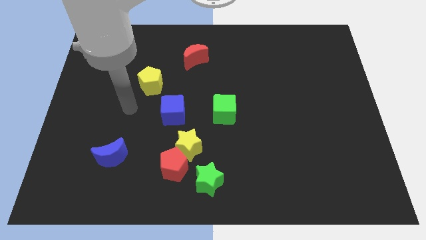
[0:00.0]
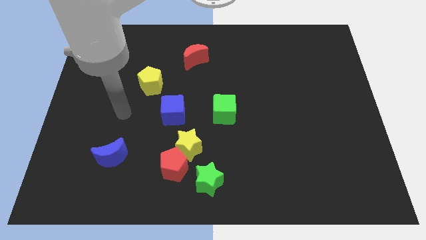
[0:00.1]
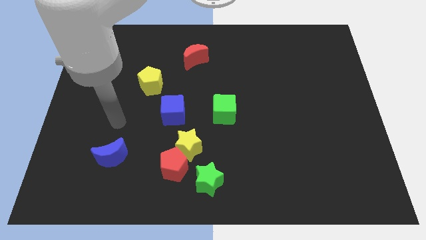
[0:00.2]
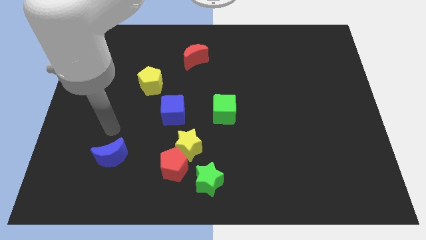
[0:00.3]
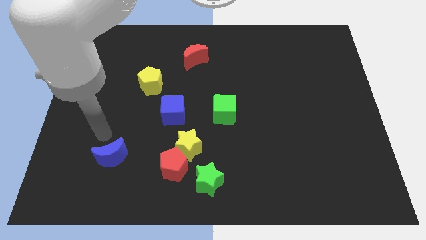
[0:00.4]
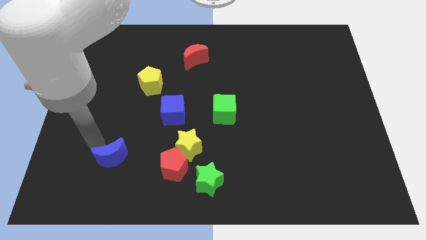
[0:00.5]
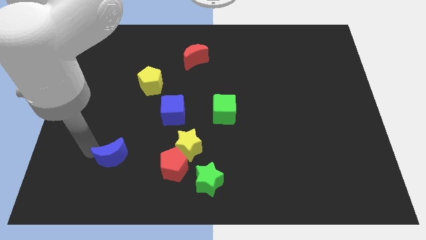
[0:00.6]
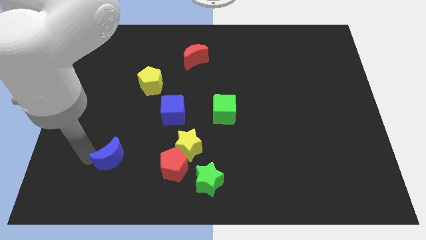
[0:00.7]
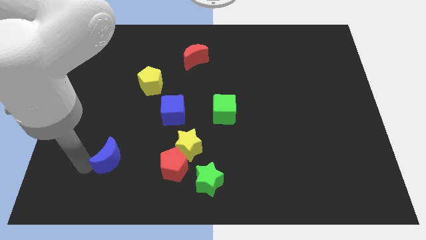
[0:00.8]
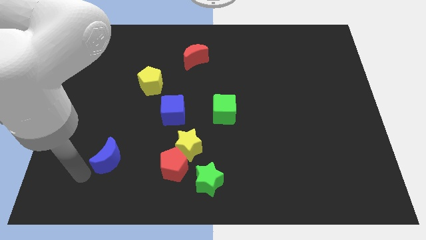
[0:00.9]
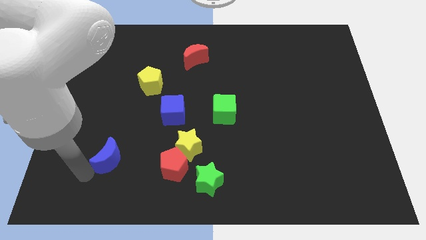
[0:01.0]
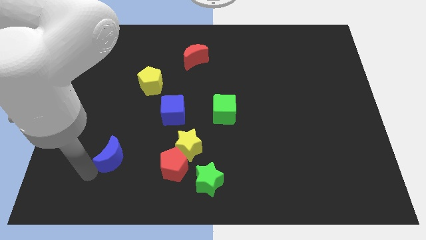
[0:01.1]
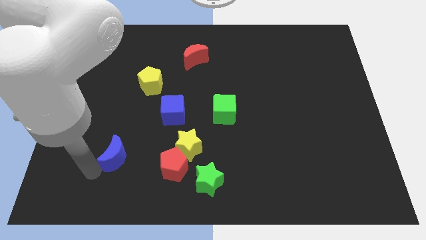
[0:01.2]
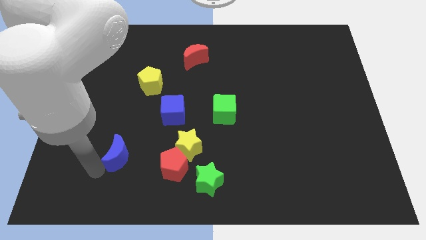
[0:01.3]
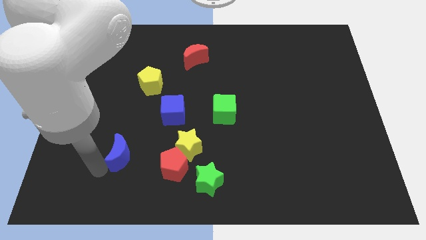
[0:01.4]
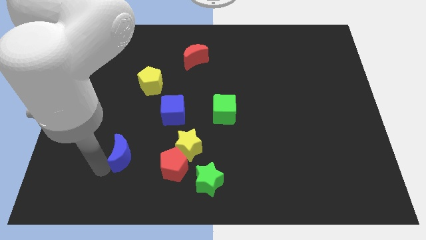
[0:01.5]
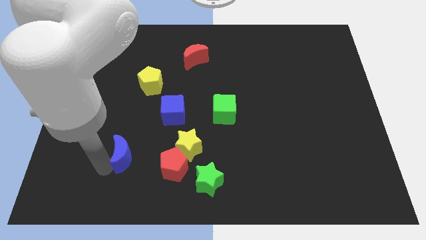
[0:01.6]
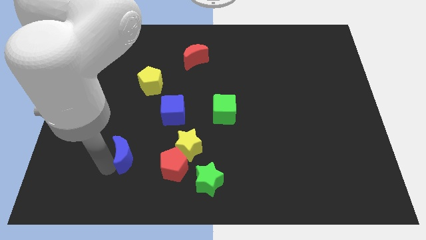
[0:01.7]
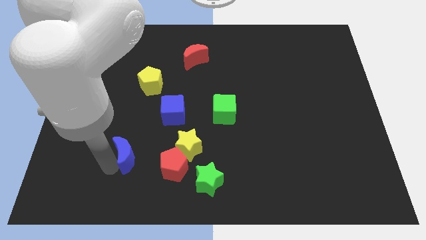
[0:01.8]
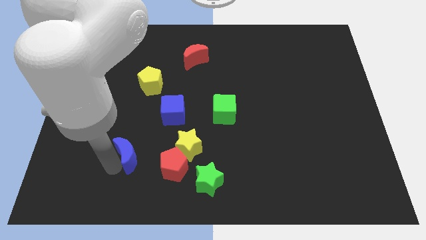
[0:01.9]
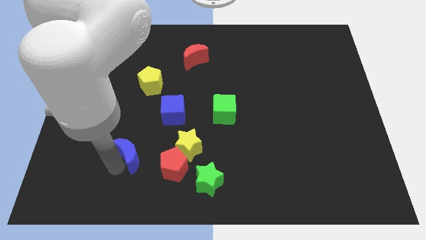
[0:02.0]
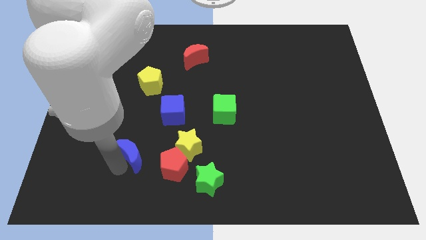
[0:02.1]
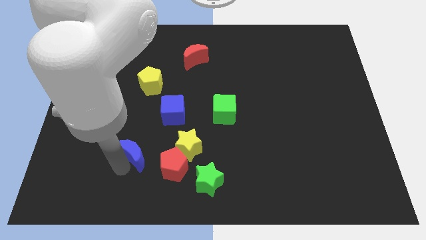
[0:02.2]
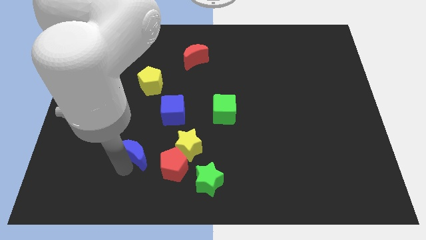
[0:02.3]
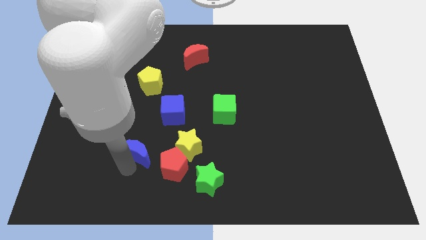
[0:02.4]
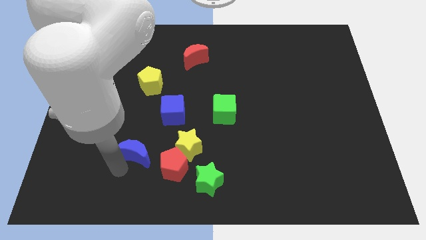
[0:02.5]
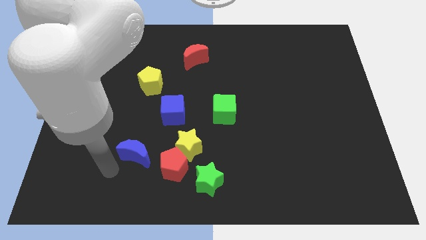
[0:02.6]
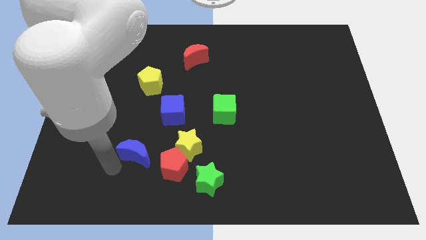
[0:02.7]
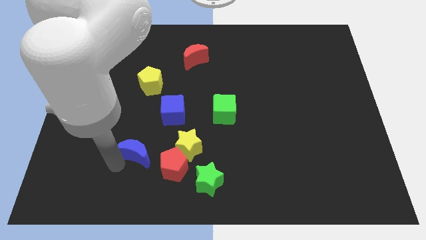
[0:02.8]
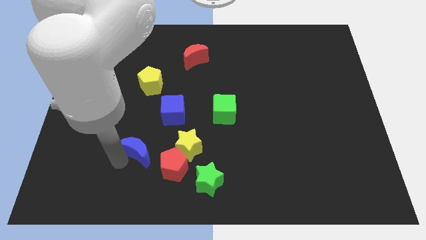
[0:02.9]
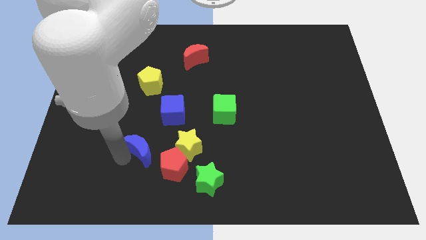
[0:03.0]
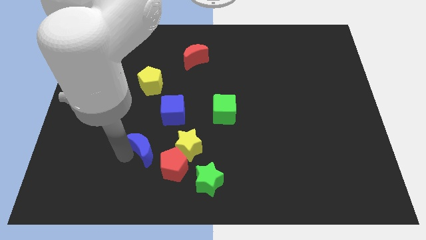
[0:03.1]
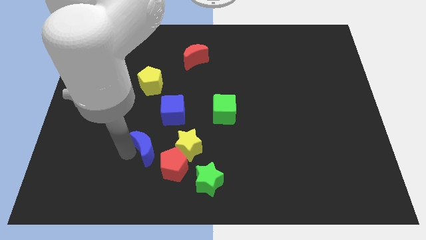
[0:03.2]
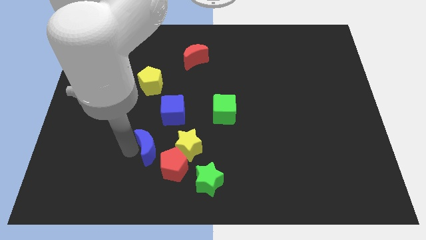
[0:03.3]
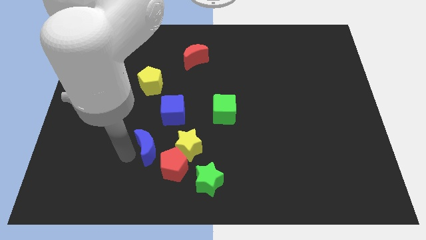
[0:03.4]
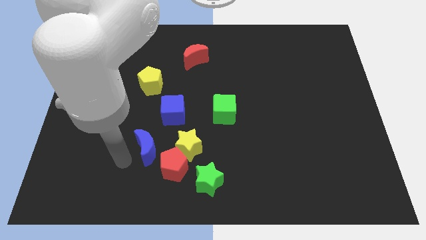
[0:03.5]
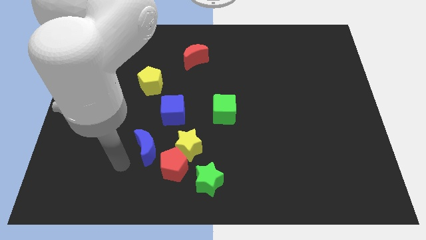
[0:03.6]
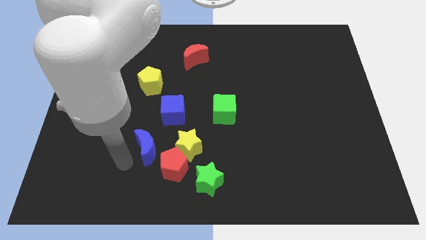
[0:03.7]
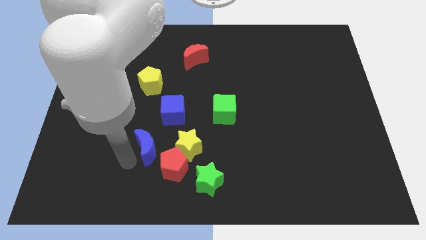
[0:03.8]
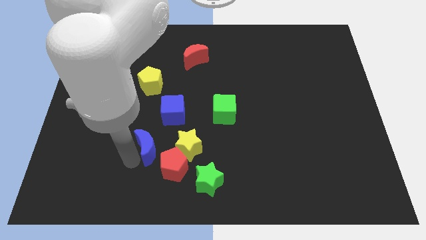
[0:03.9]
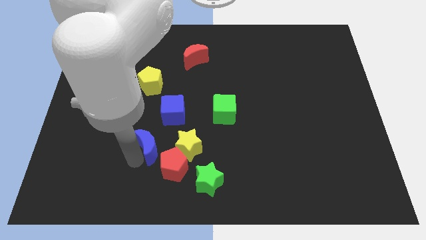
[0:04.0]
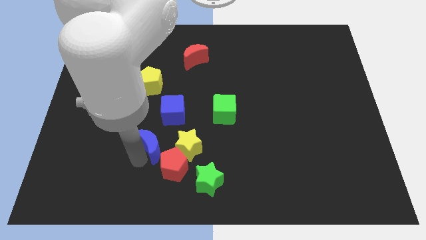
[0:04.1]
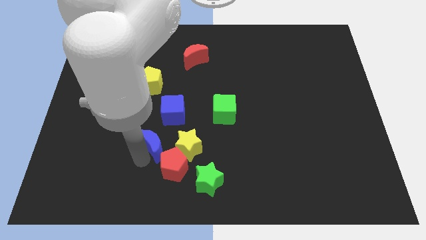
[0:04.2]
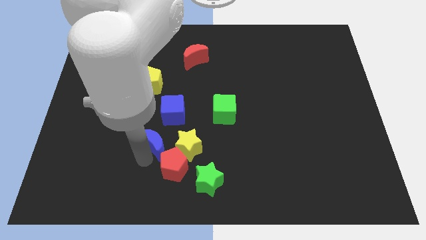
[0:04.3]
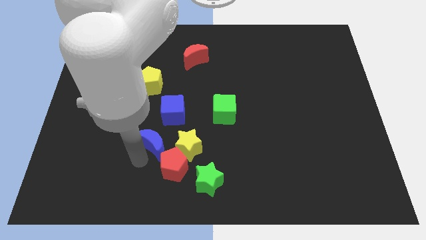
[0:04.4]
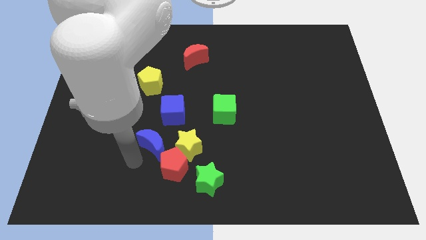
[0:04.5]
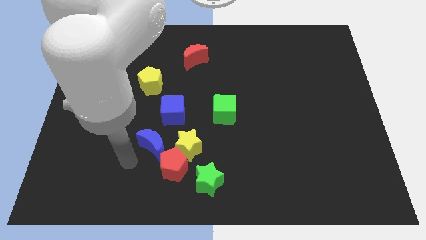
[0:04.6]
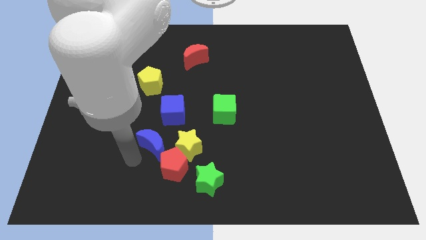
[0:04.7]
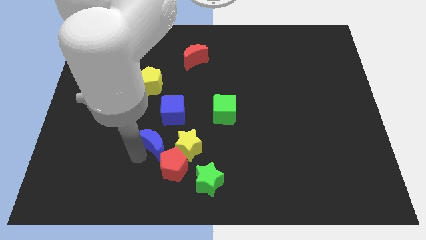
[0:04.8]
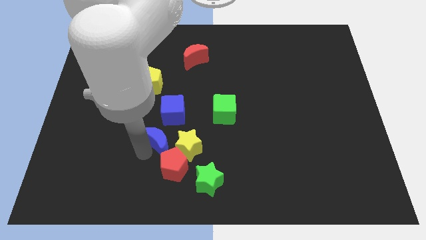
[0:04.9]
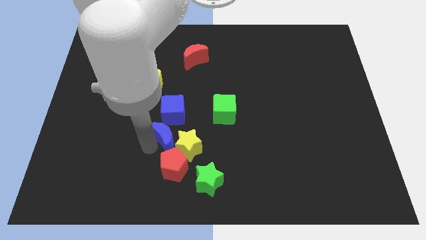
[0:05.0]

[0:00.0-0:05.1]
move the blue moon to the yellow star

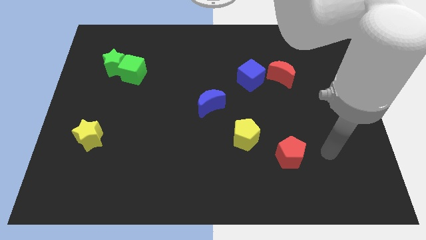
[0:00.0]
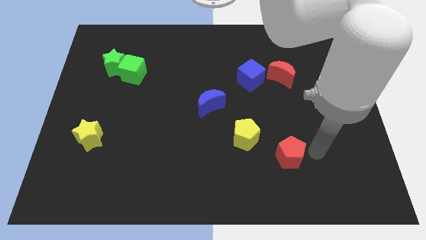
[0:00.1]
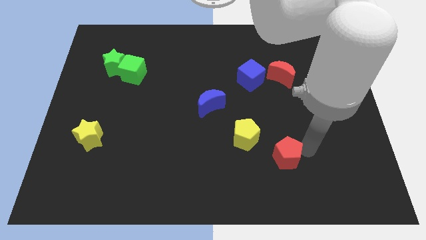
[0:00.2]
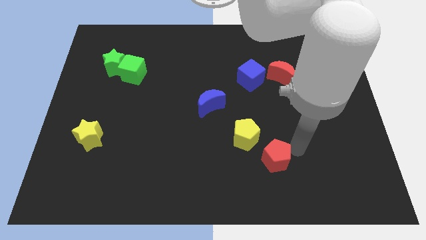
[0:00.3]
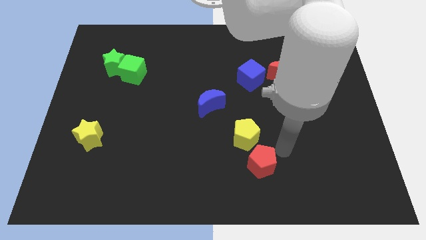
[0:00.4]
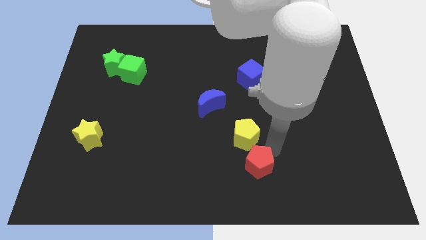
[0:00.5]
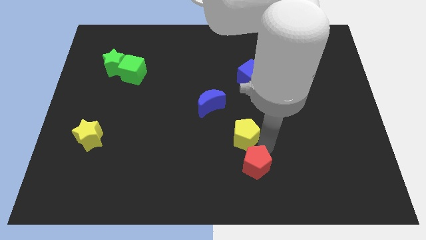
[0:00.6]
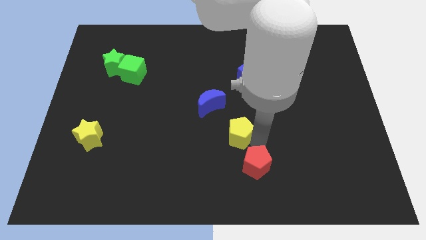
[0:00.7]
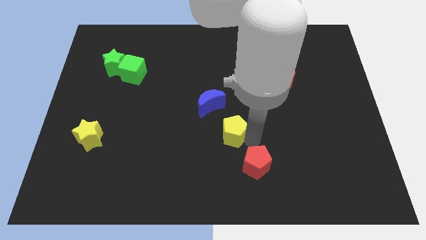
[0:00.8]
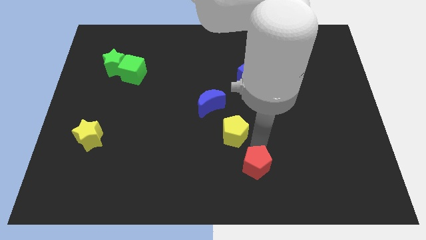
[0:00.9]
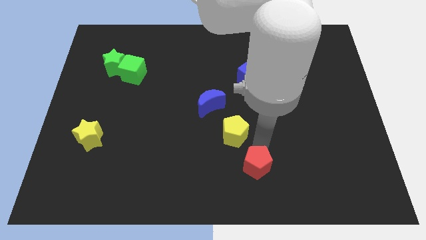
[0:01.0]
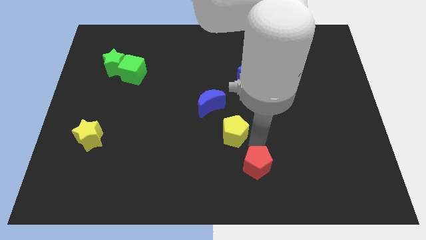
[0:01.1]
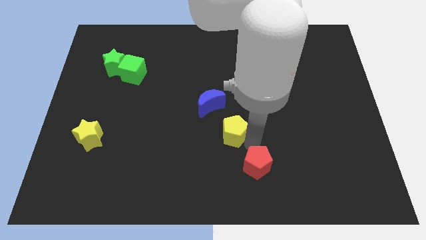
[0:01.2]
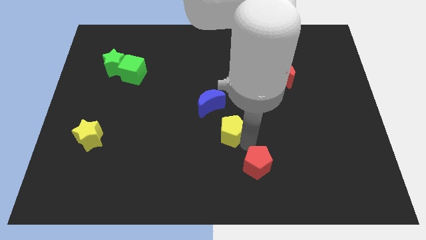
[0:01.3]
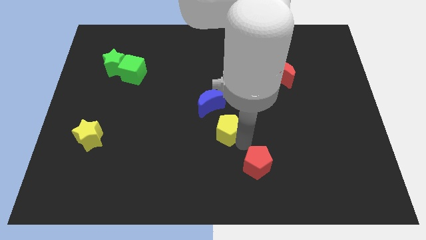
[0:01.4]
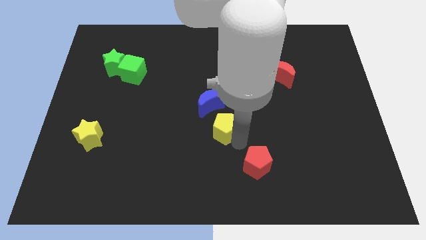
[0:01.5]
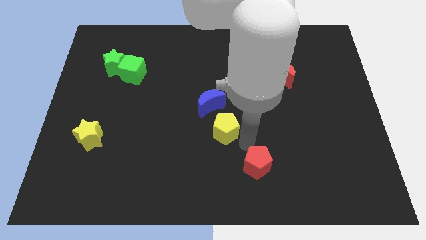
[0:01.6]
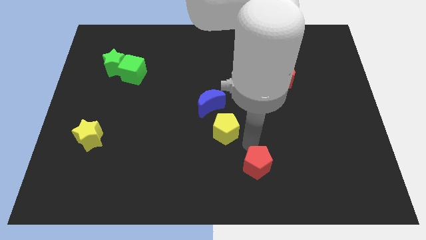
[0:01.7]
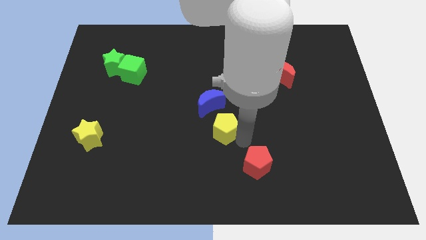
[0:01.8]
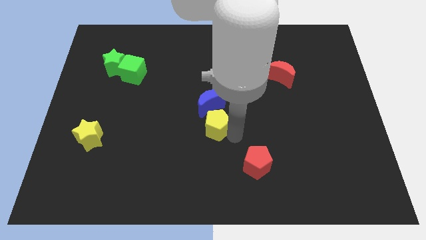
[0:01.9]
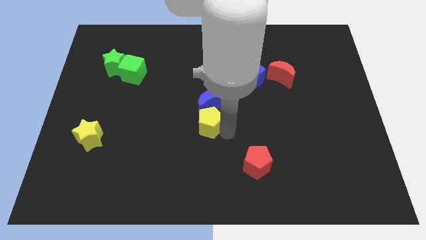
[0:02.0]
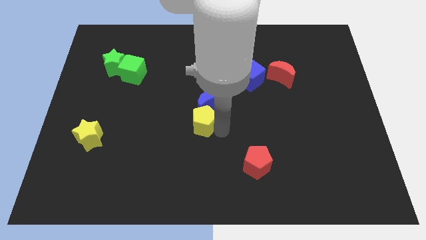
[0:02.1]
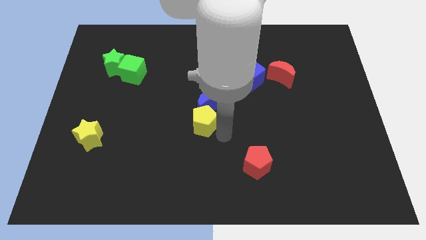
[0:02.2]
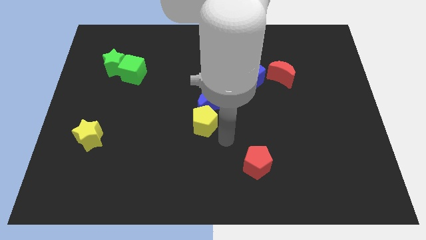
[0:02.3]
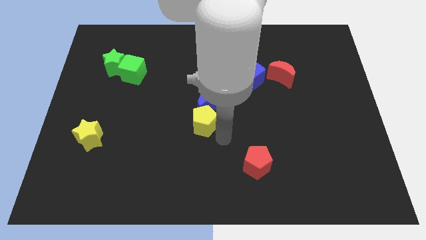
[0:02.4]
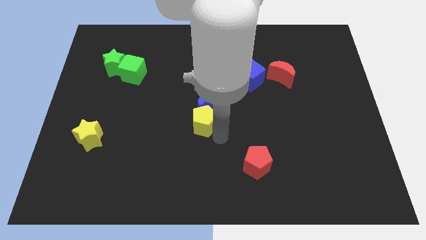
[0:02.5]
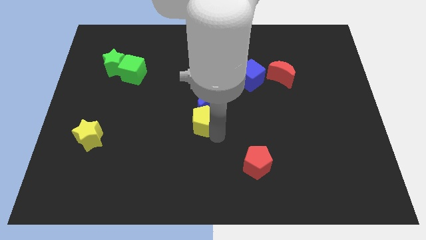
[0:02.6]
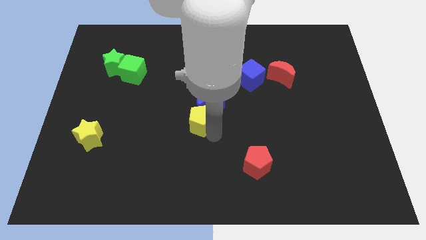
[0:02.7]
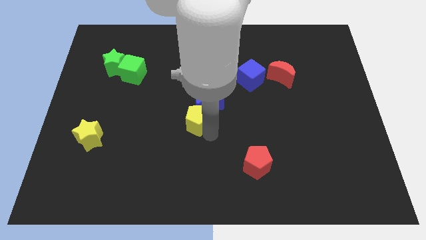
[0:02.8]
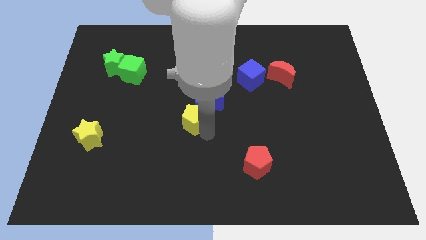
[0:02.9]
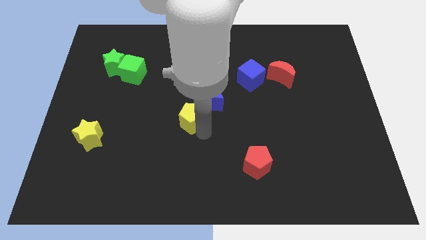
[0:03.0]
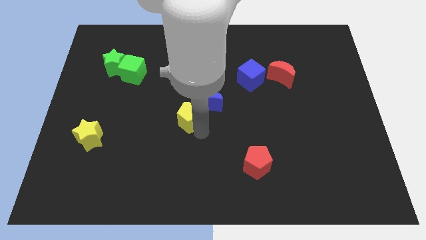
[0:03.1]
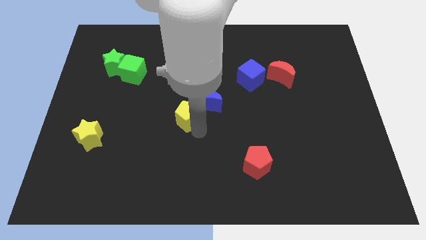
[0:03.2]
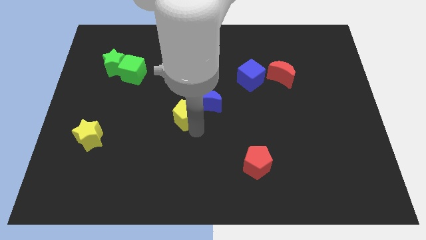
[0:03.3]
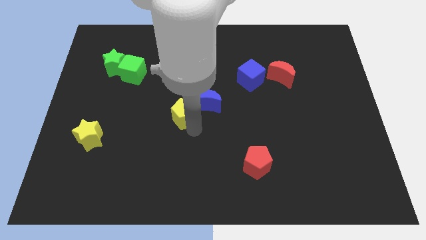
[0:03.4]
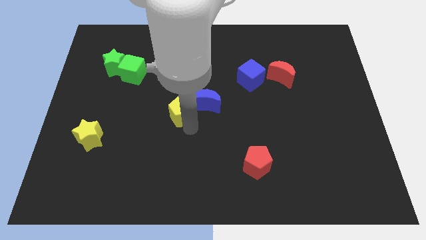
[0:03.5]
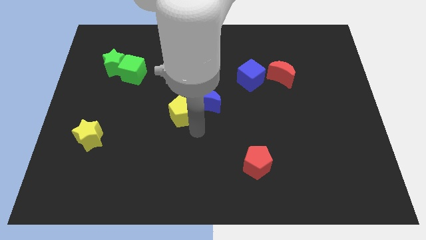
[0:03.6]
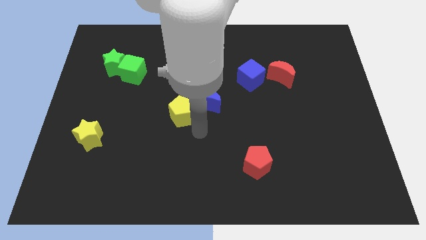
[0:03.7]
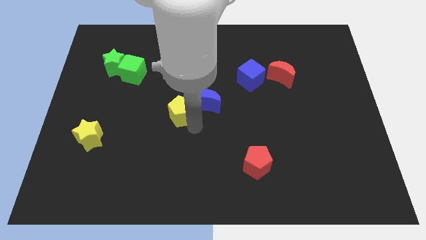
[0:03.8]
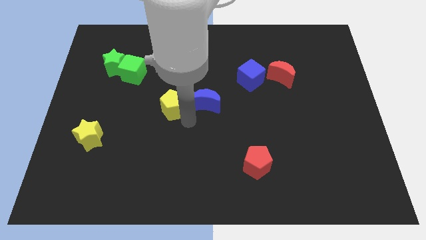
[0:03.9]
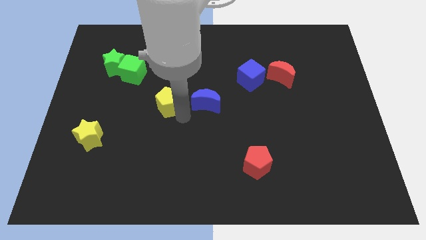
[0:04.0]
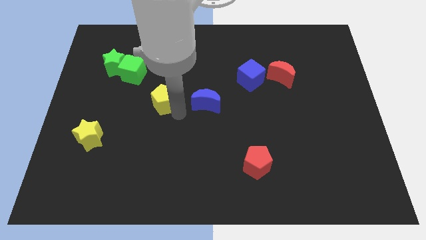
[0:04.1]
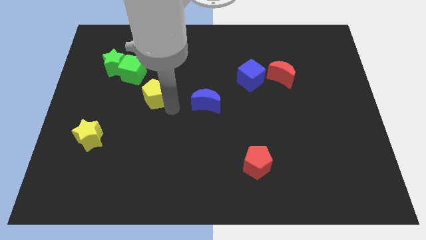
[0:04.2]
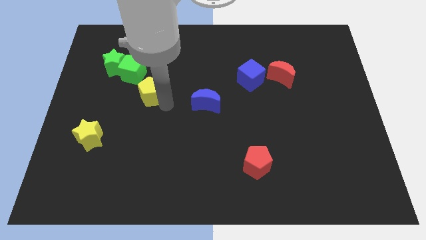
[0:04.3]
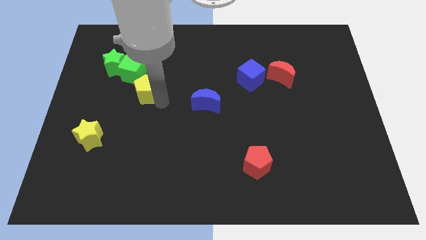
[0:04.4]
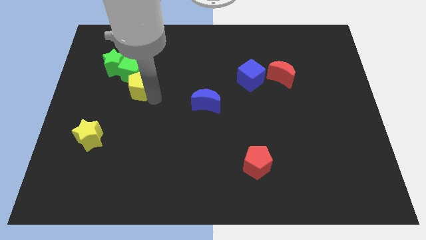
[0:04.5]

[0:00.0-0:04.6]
slide the yellow pentagon towards the green cube
